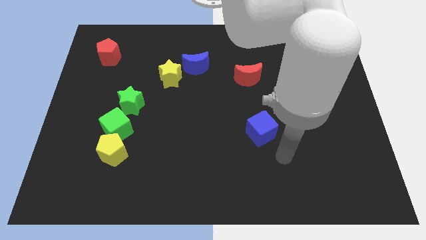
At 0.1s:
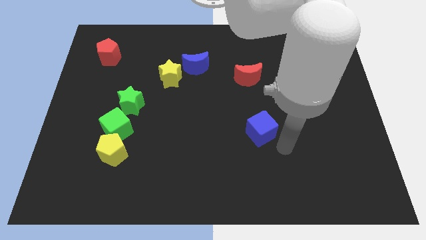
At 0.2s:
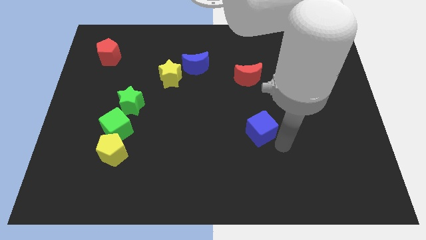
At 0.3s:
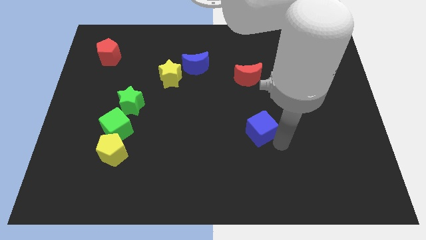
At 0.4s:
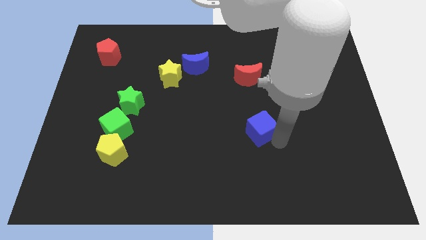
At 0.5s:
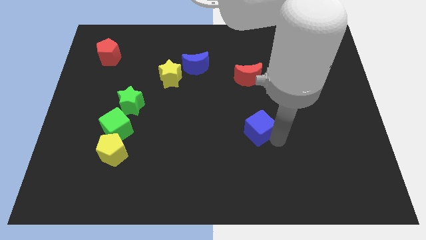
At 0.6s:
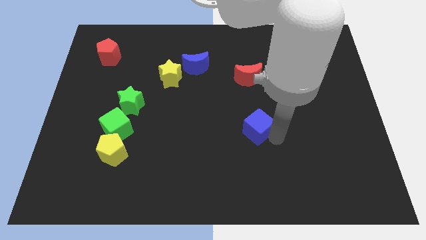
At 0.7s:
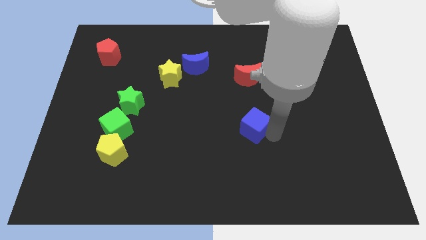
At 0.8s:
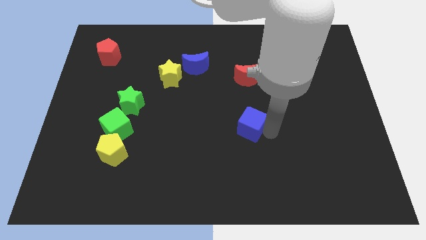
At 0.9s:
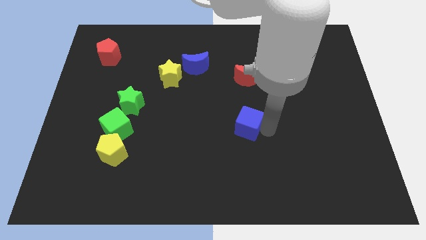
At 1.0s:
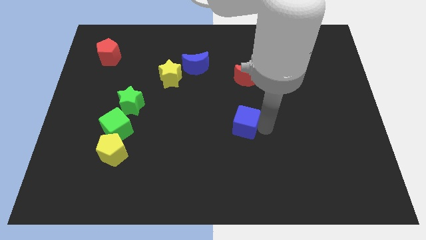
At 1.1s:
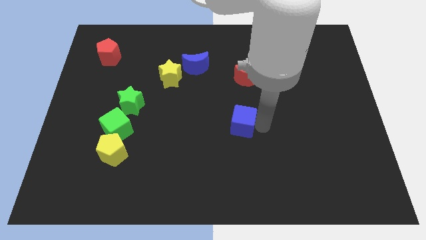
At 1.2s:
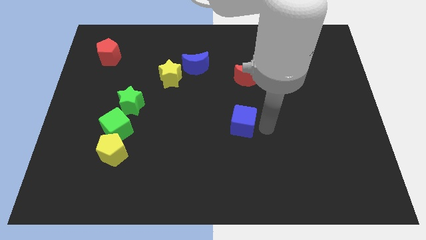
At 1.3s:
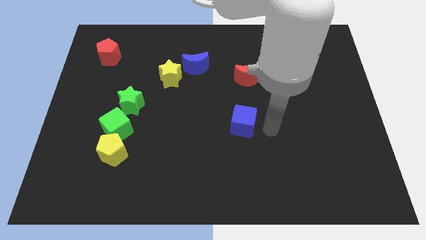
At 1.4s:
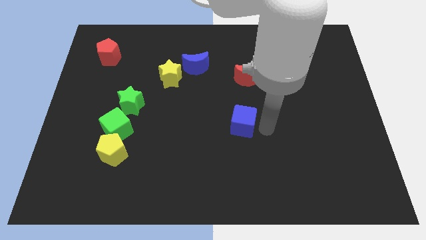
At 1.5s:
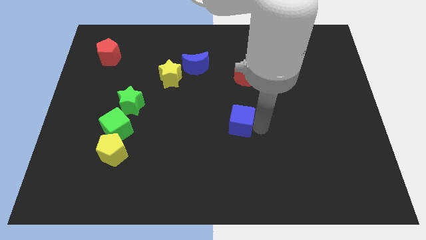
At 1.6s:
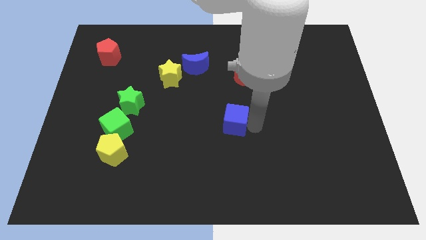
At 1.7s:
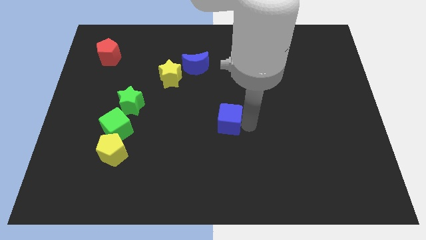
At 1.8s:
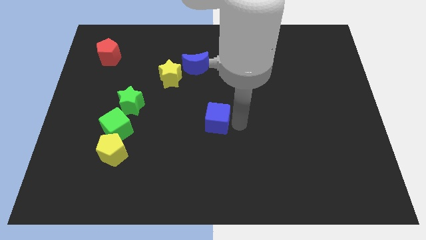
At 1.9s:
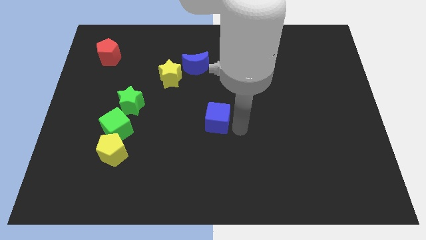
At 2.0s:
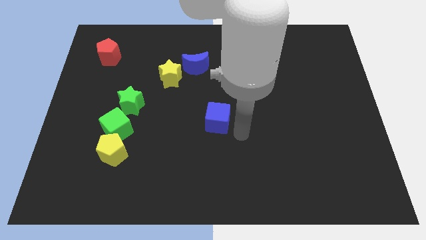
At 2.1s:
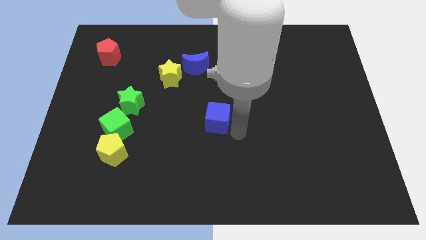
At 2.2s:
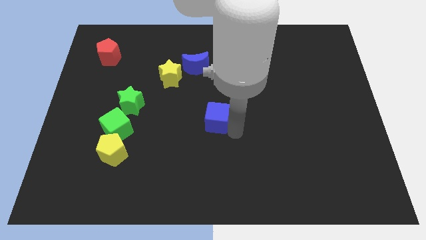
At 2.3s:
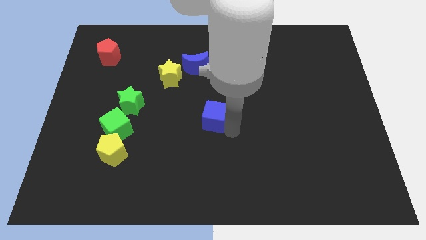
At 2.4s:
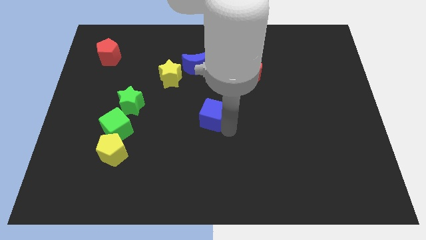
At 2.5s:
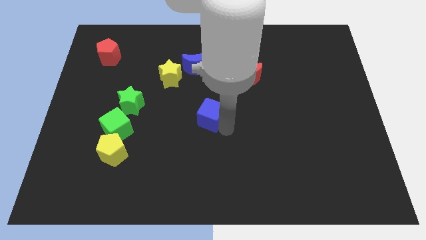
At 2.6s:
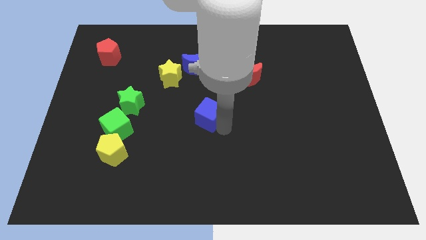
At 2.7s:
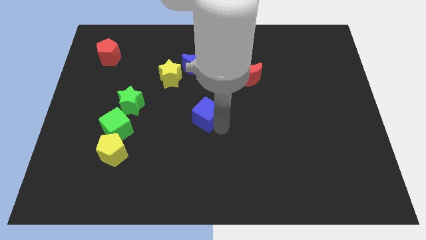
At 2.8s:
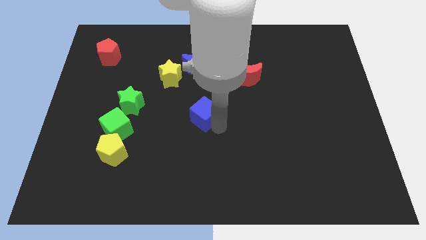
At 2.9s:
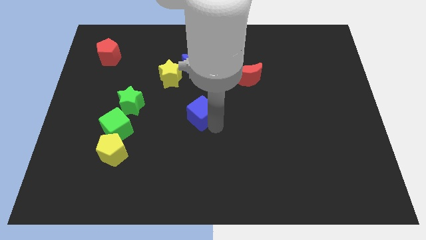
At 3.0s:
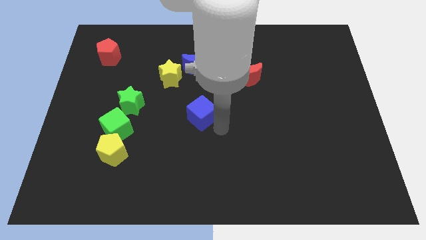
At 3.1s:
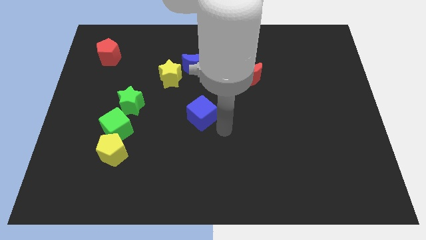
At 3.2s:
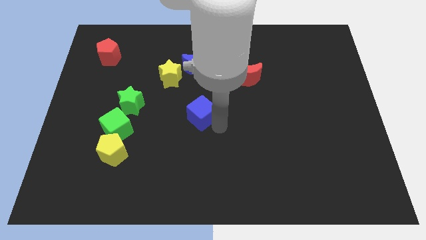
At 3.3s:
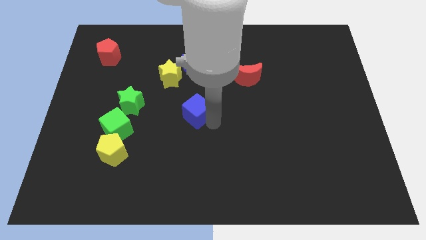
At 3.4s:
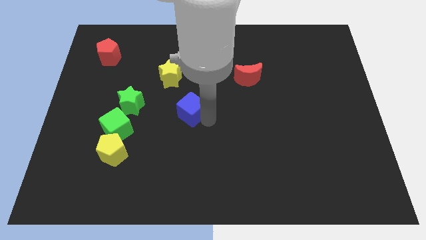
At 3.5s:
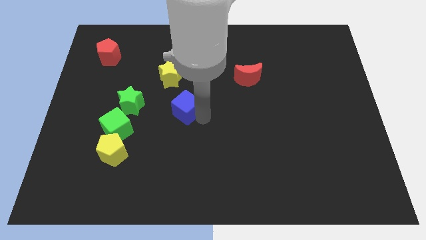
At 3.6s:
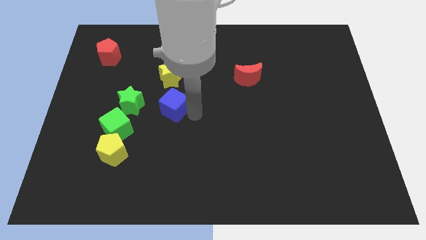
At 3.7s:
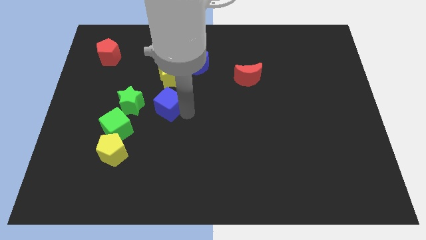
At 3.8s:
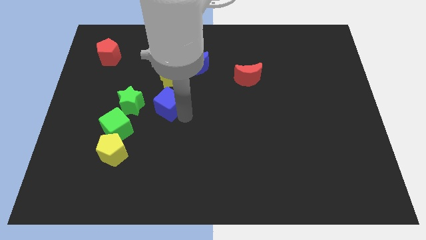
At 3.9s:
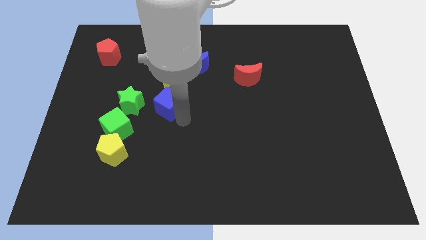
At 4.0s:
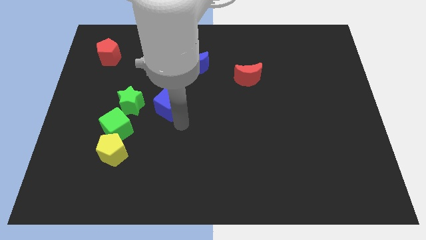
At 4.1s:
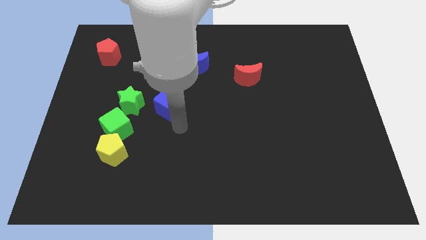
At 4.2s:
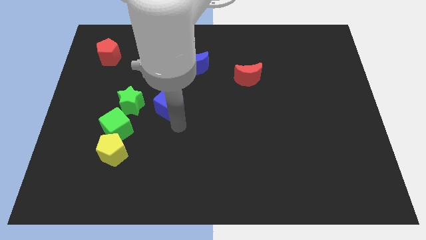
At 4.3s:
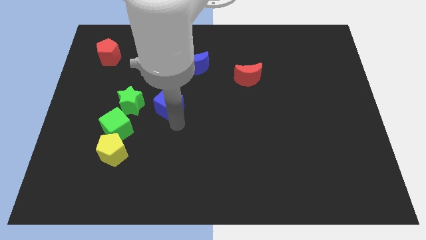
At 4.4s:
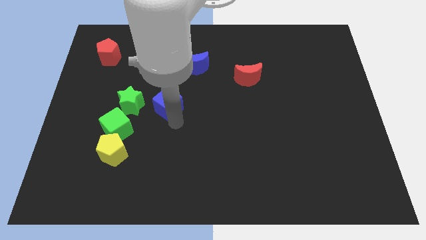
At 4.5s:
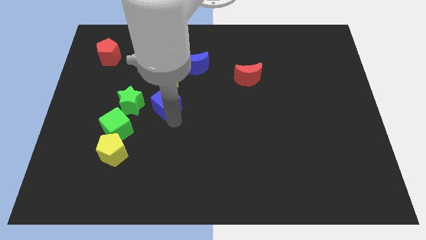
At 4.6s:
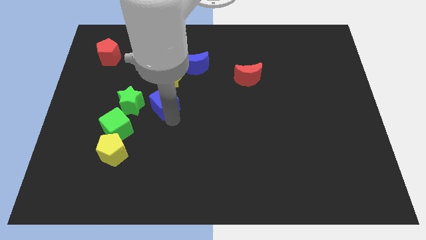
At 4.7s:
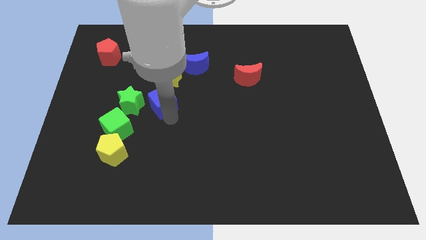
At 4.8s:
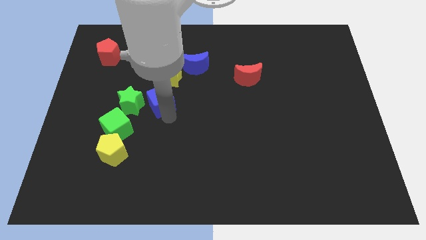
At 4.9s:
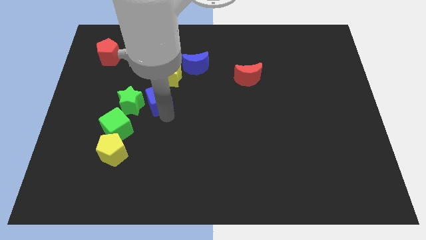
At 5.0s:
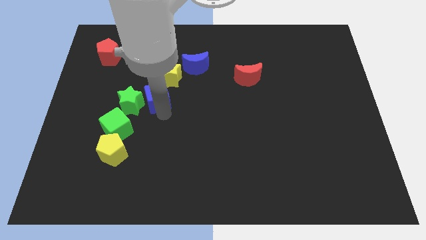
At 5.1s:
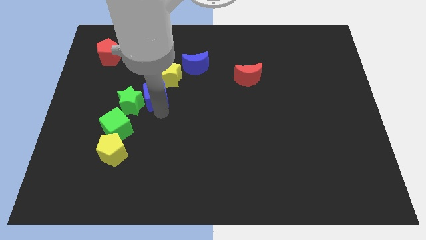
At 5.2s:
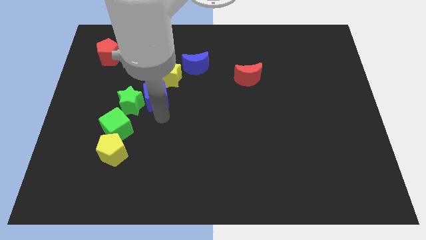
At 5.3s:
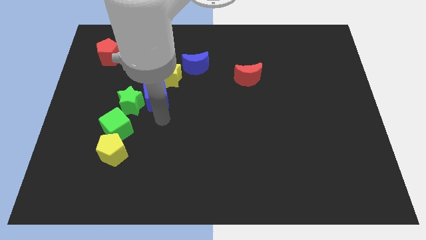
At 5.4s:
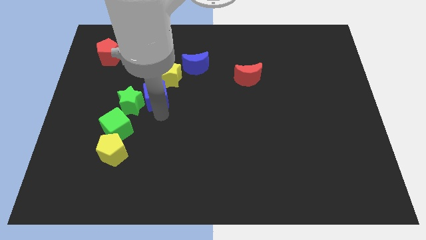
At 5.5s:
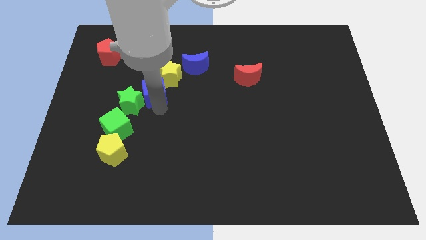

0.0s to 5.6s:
push the blue cube diagonally upwards and to the left

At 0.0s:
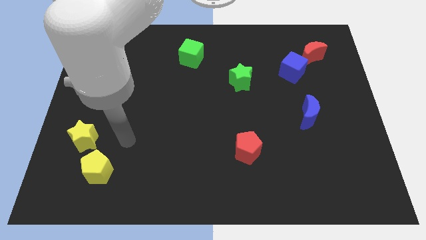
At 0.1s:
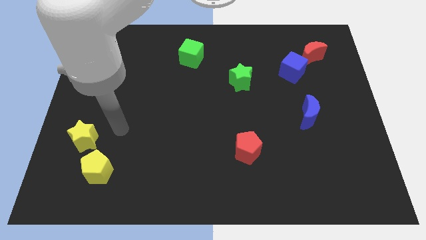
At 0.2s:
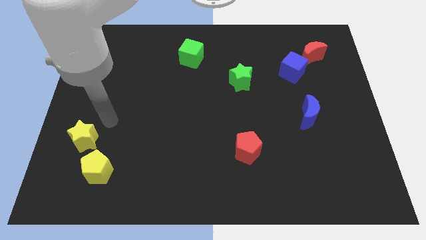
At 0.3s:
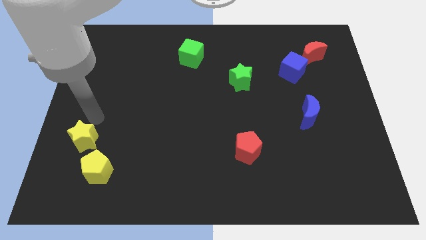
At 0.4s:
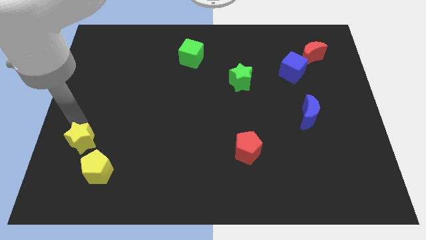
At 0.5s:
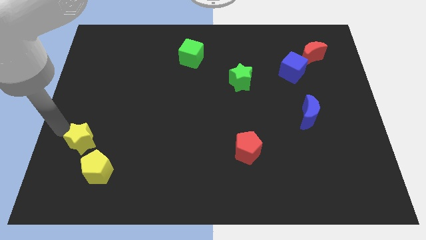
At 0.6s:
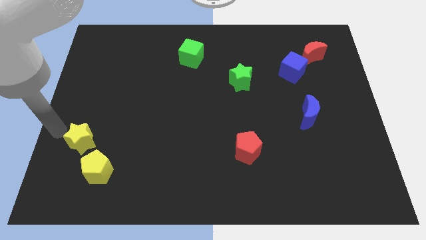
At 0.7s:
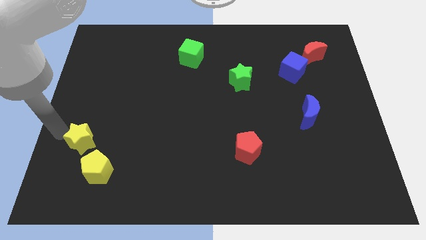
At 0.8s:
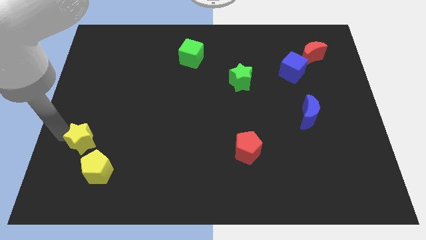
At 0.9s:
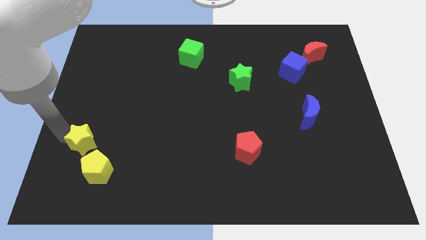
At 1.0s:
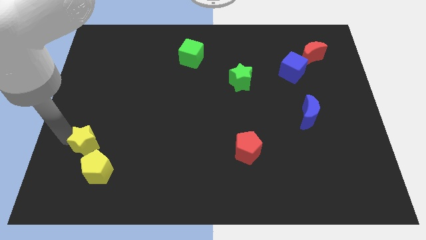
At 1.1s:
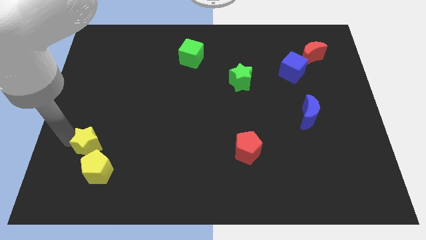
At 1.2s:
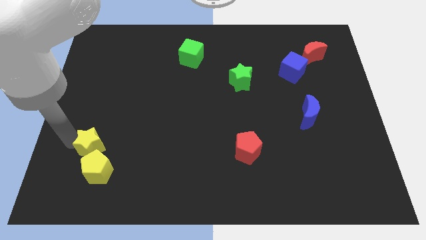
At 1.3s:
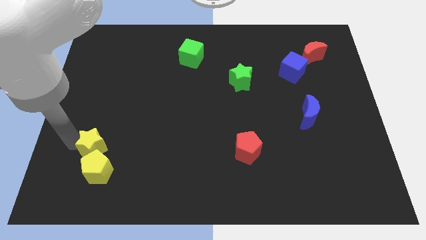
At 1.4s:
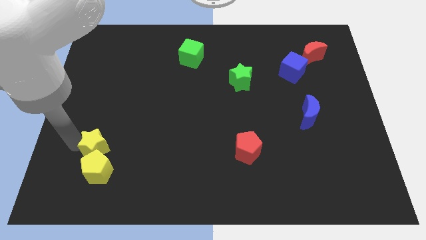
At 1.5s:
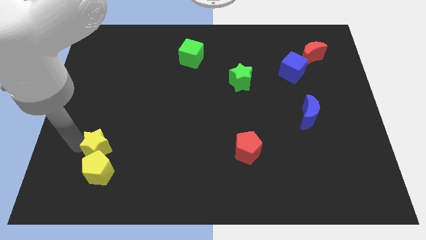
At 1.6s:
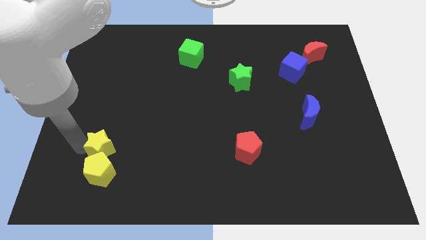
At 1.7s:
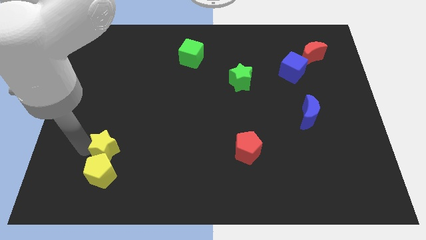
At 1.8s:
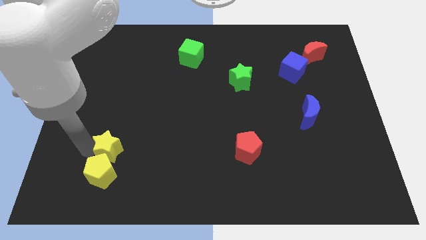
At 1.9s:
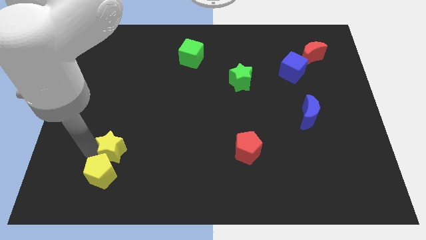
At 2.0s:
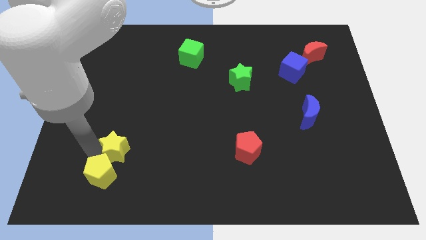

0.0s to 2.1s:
push the yellow star to the right a little bit

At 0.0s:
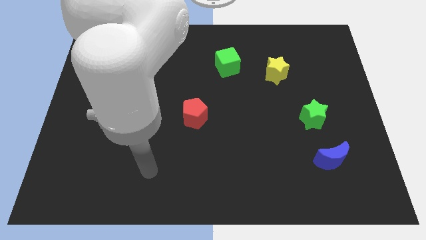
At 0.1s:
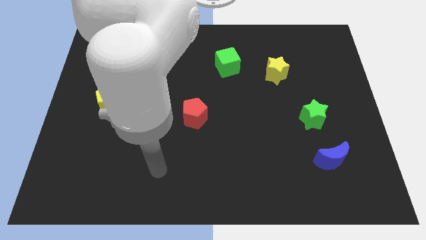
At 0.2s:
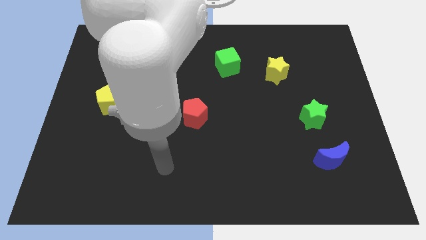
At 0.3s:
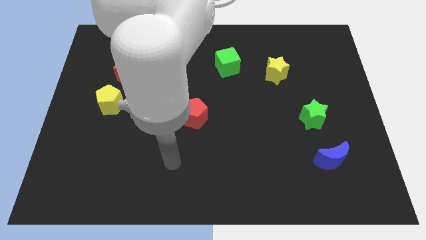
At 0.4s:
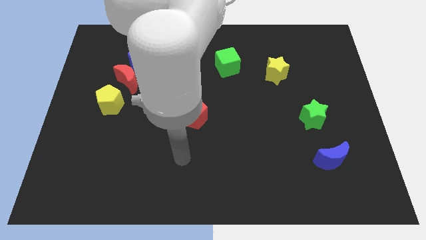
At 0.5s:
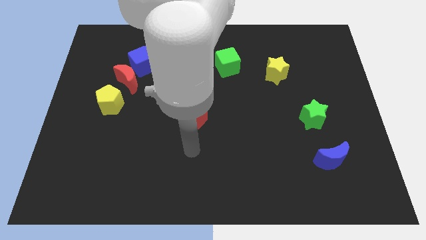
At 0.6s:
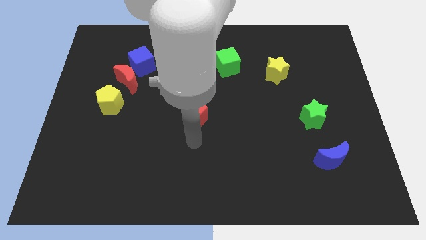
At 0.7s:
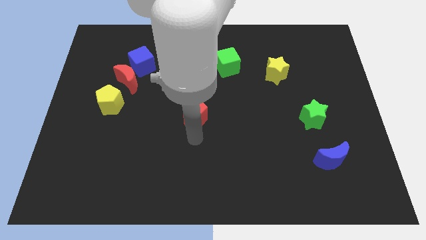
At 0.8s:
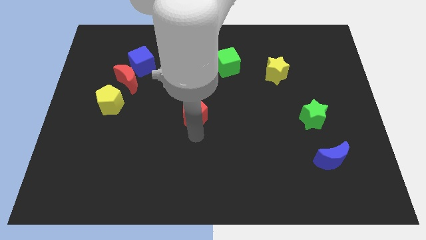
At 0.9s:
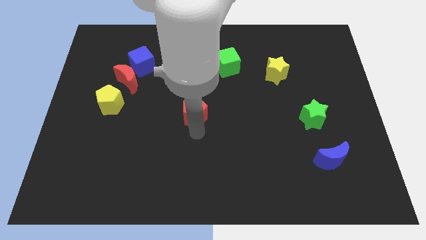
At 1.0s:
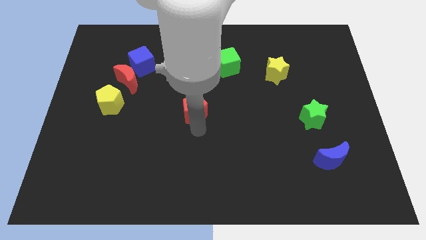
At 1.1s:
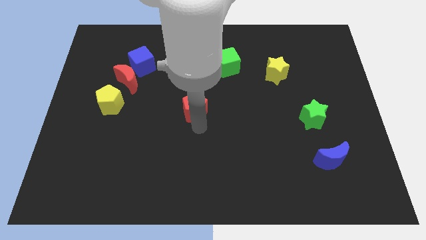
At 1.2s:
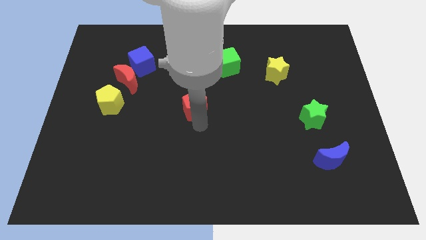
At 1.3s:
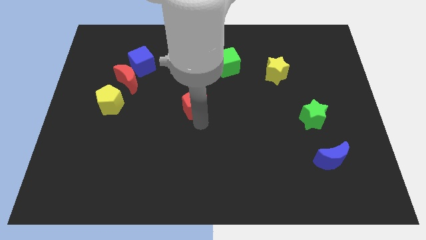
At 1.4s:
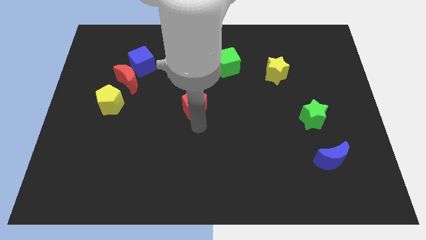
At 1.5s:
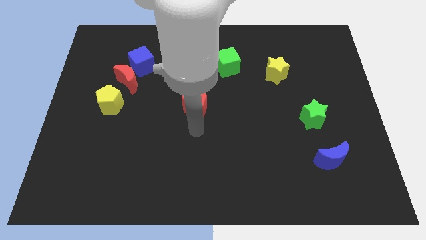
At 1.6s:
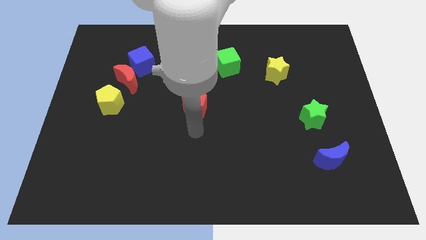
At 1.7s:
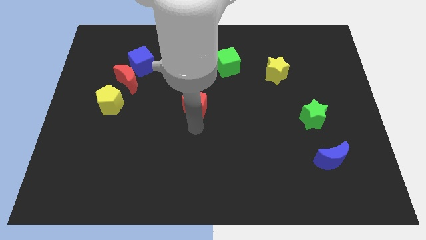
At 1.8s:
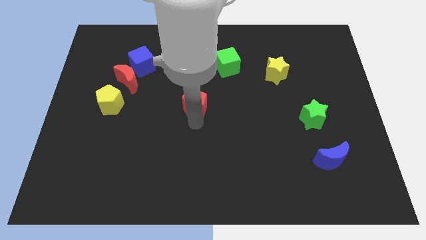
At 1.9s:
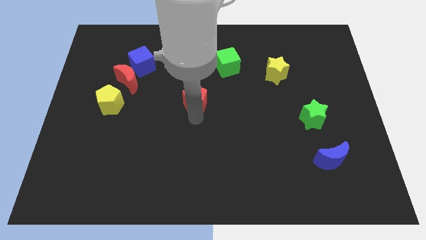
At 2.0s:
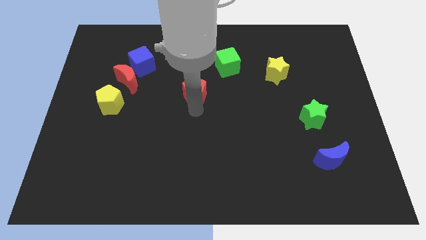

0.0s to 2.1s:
push the red pentagon up a bit
